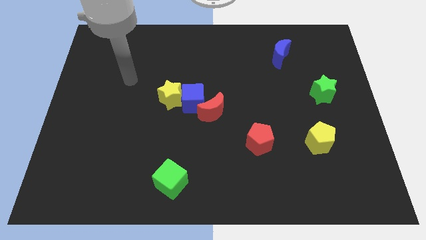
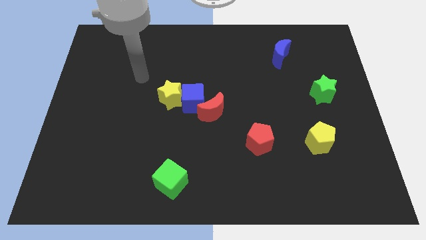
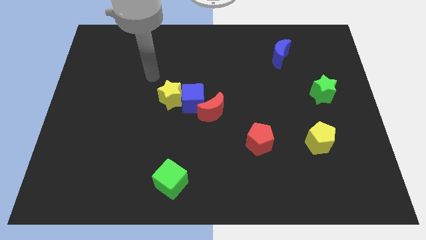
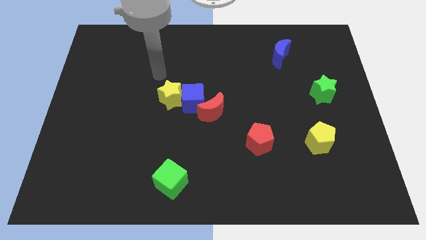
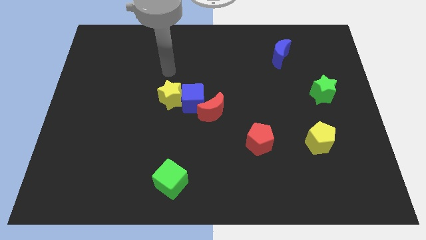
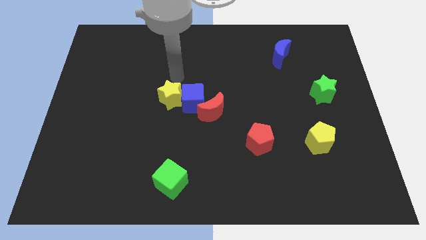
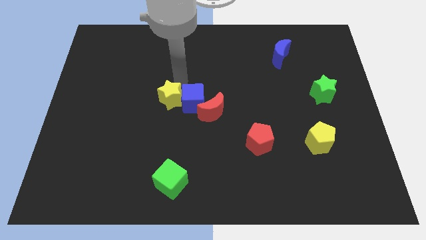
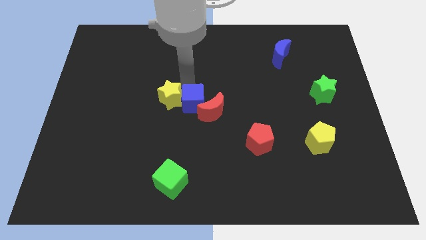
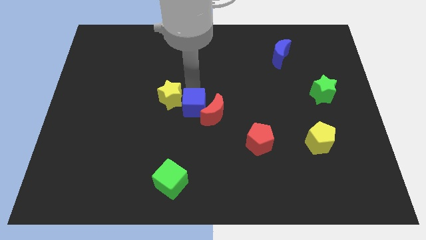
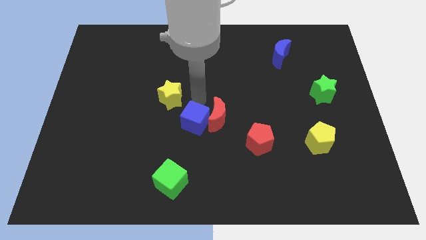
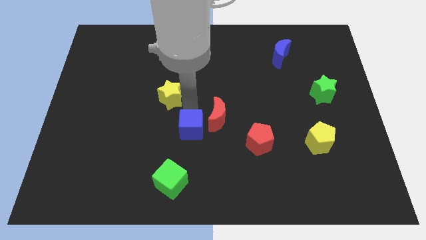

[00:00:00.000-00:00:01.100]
pull the yellow star apart from the blue cube

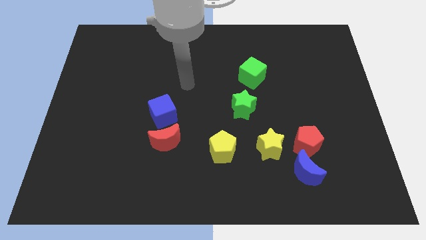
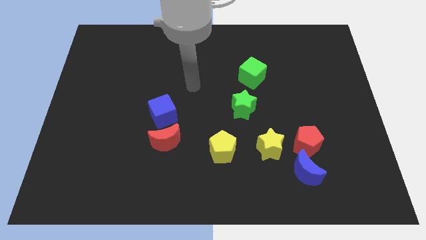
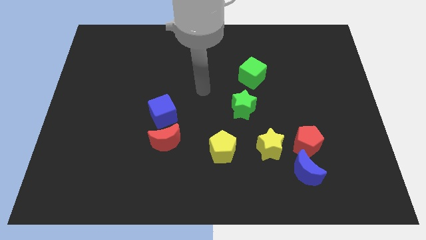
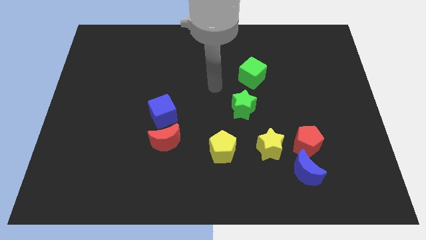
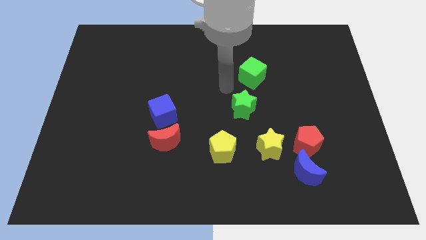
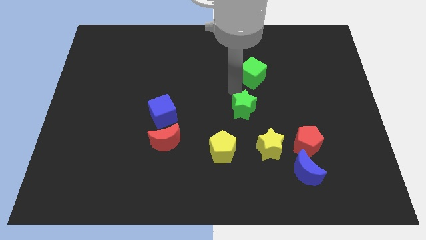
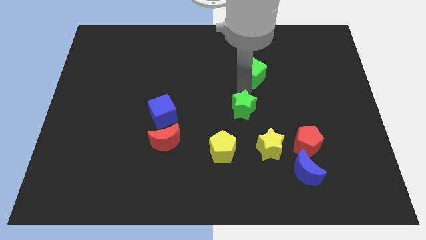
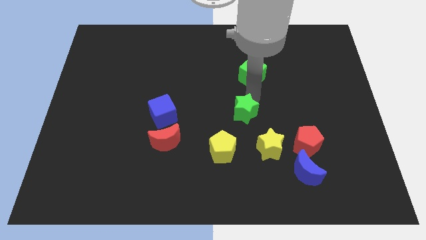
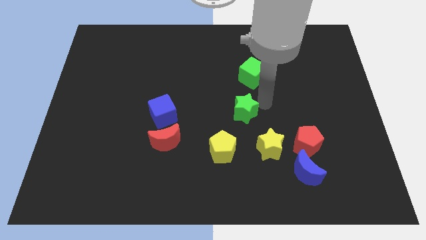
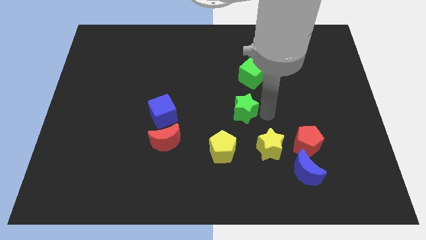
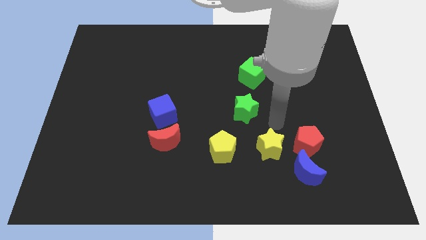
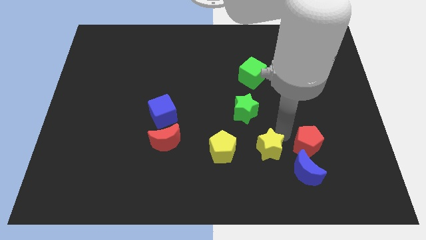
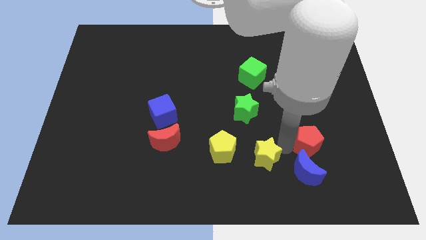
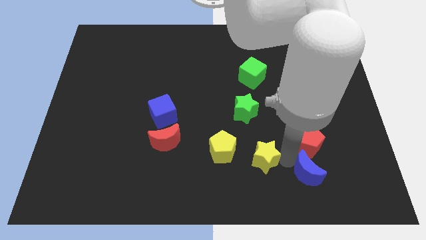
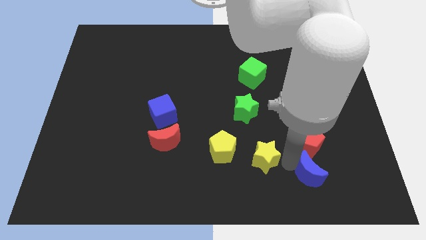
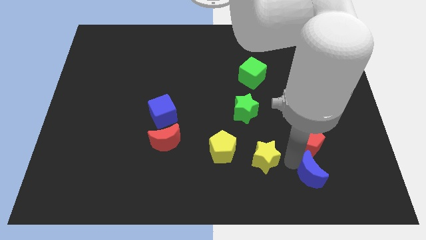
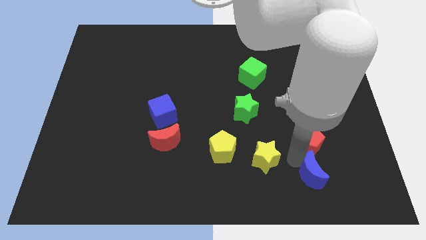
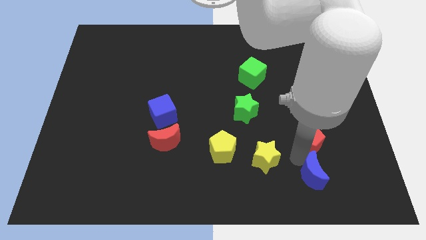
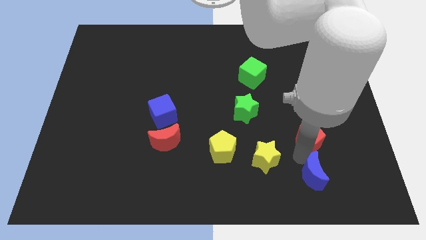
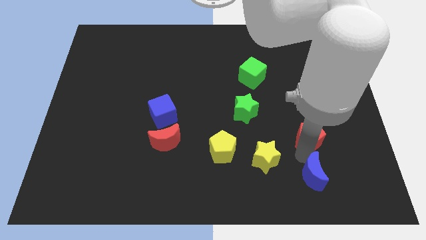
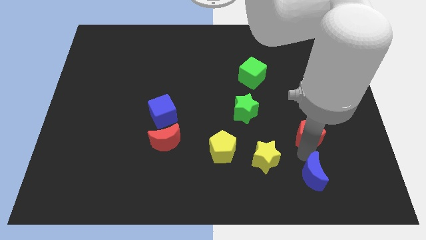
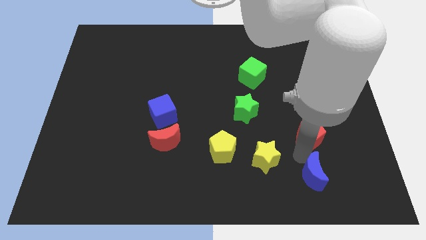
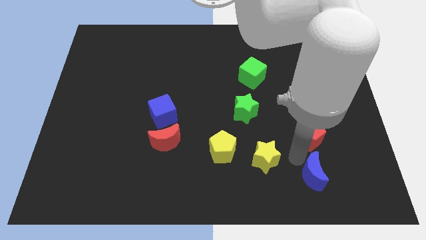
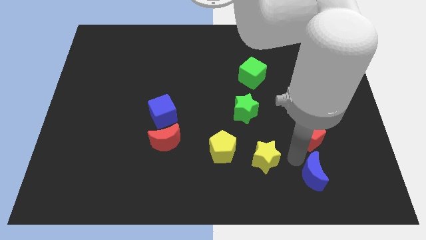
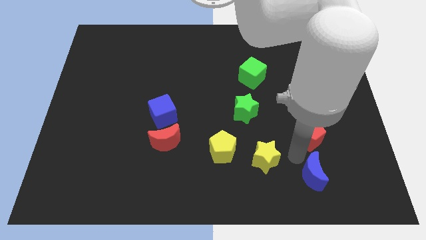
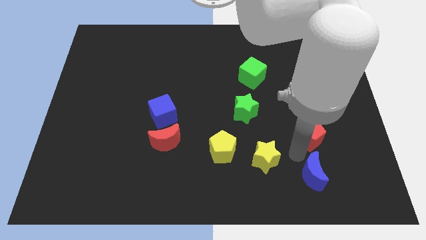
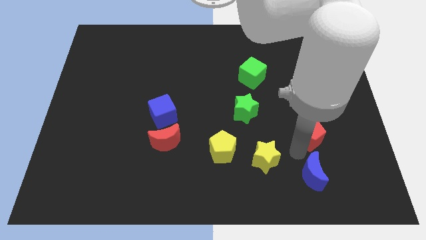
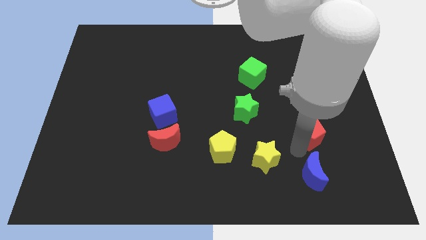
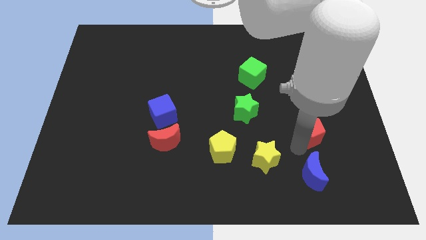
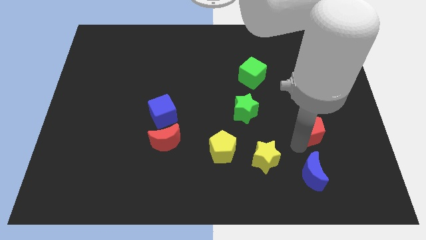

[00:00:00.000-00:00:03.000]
move the red pentagon away from the blue moon and yellow star

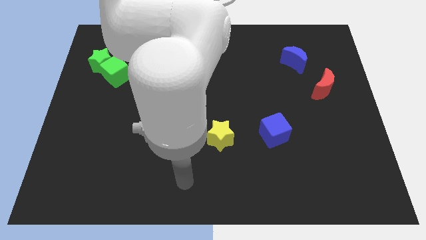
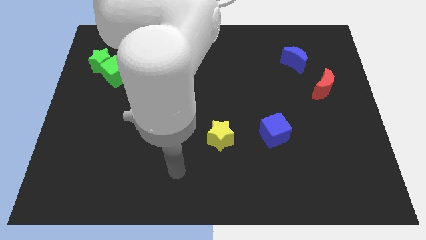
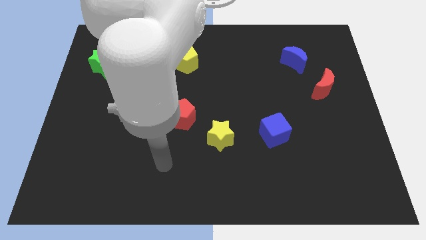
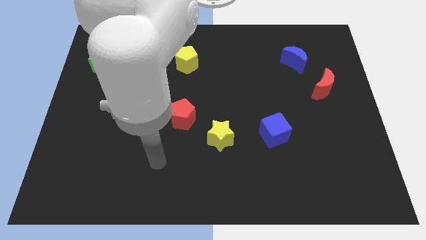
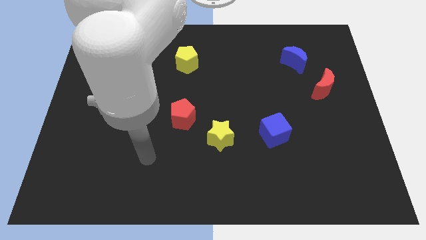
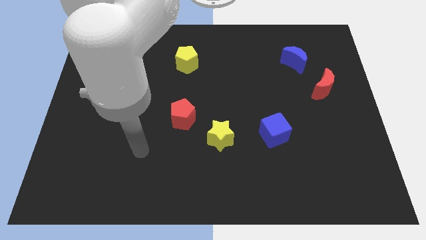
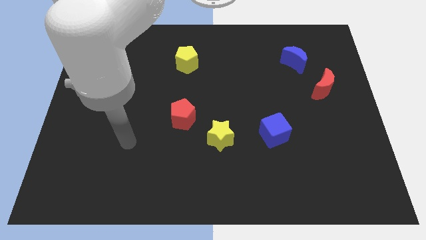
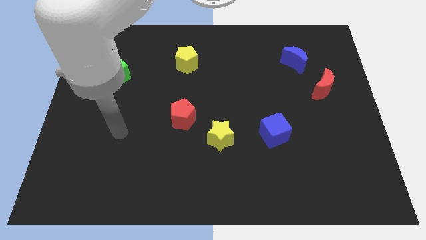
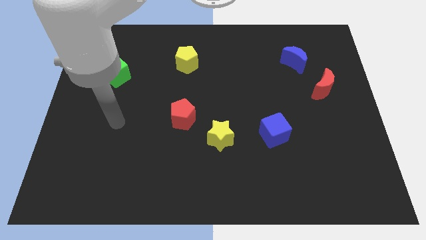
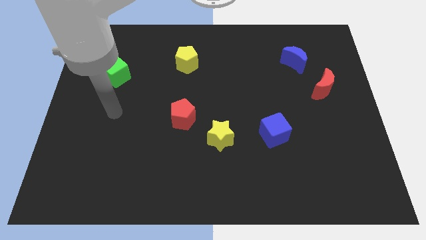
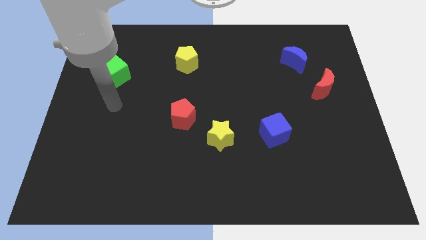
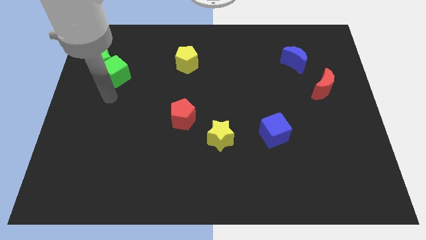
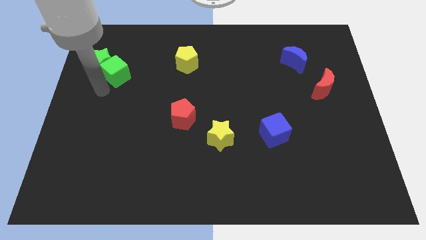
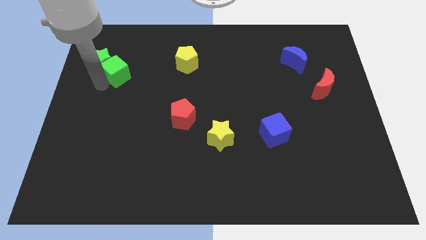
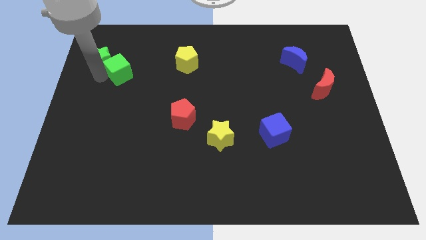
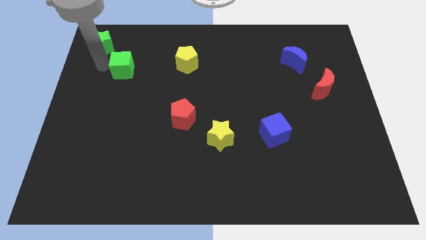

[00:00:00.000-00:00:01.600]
separate the green cube from the green star

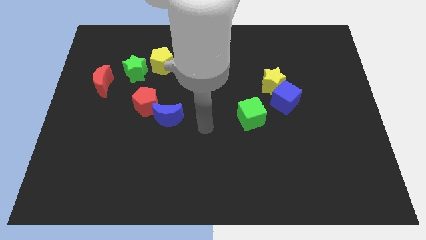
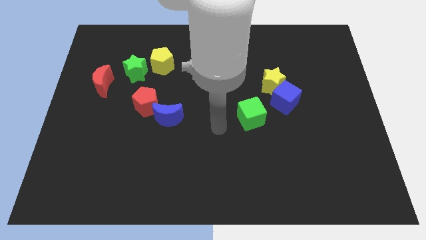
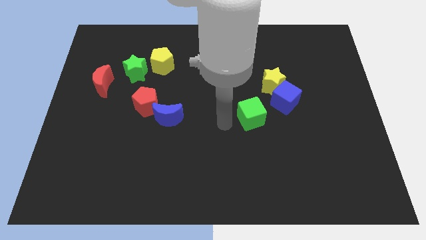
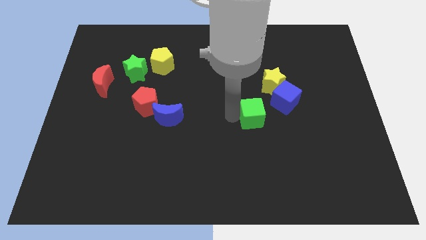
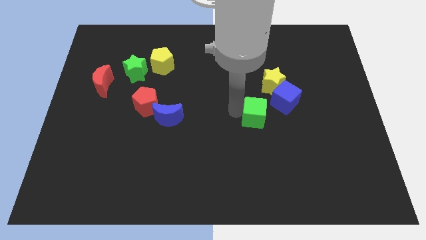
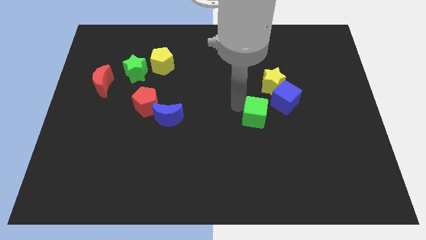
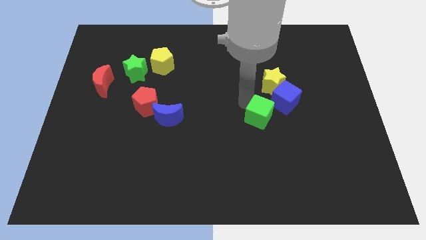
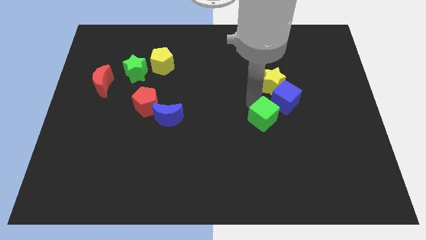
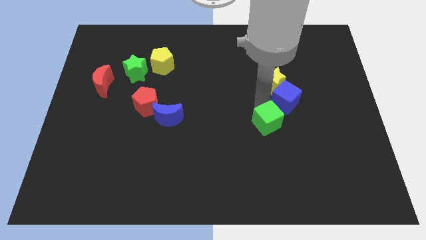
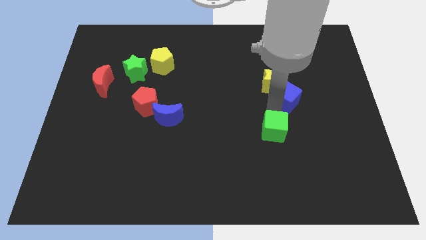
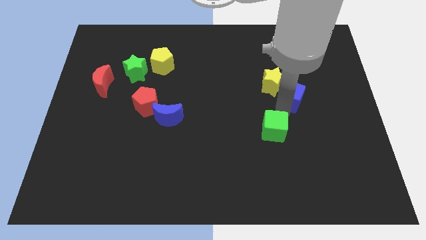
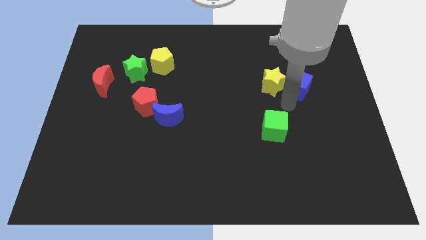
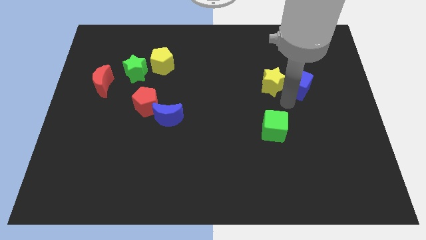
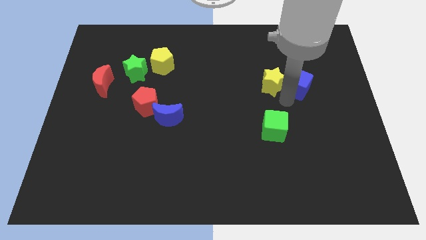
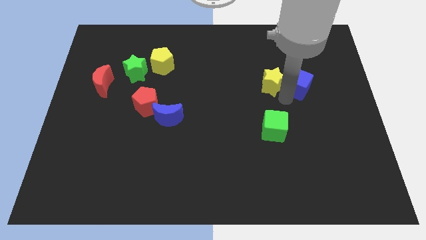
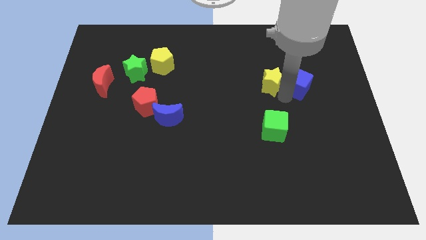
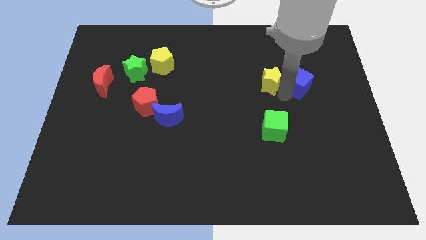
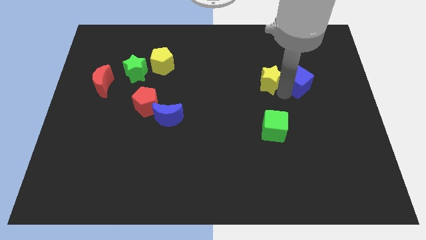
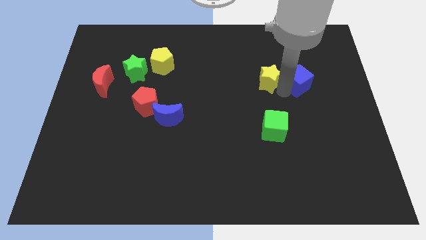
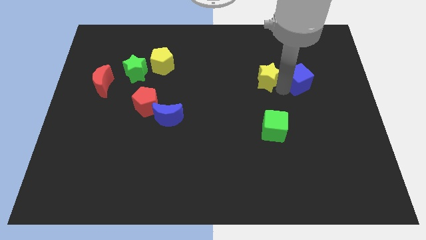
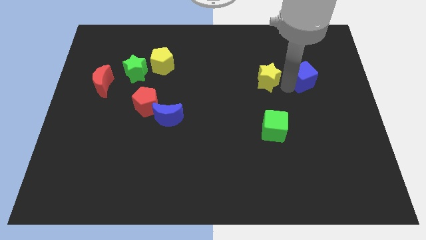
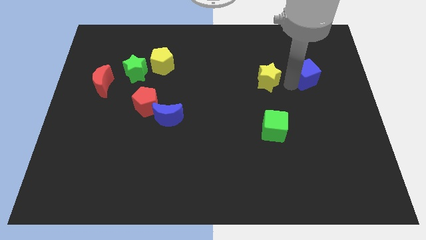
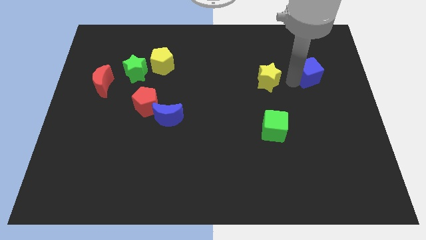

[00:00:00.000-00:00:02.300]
separate the yellow star from the blue cube

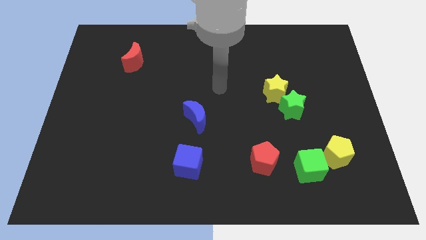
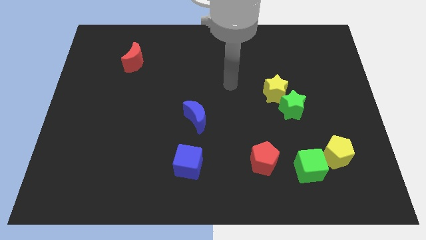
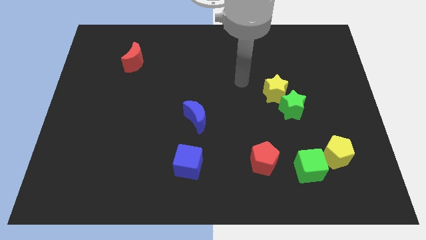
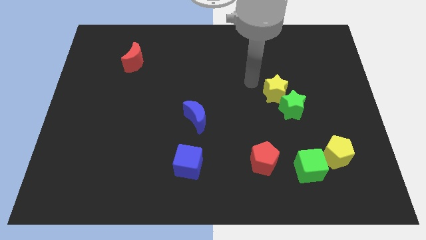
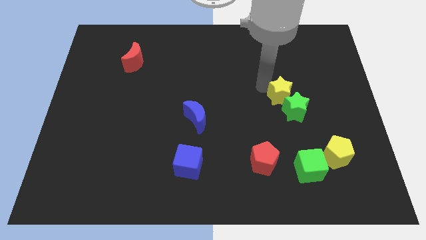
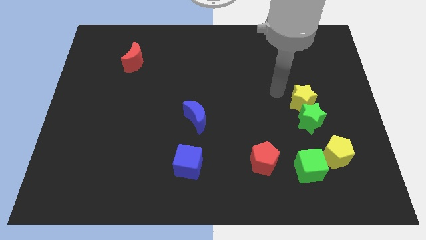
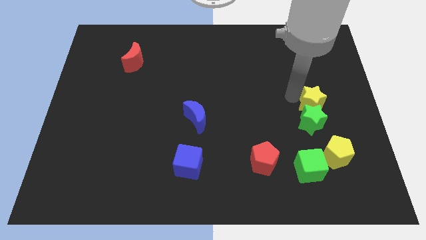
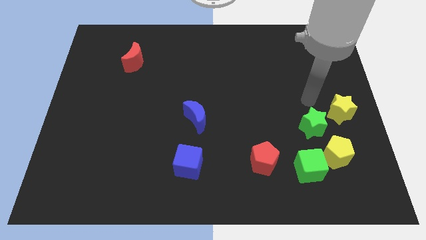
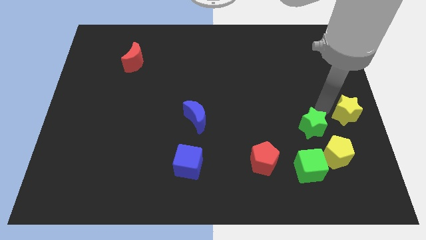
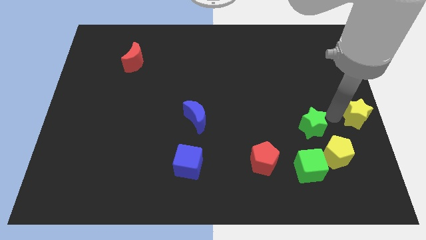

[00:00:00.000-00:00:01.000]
pull the green star apart from the yellow star

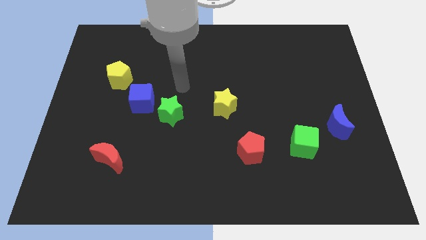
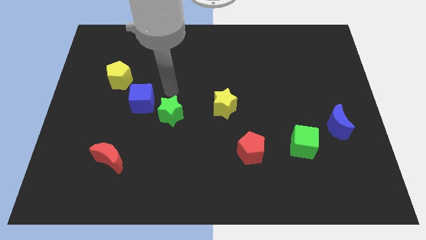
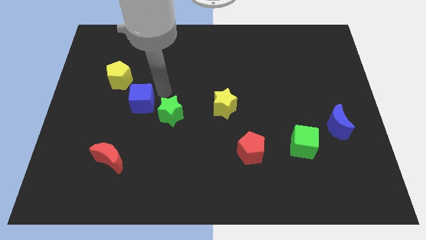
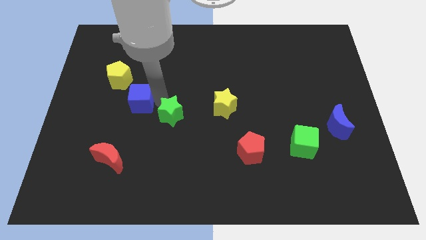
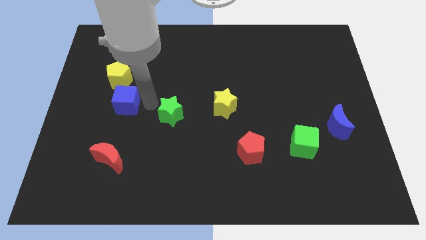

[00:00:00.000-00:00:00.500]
move the green star away from the blue cube
